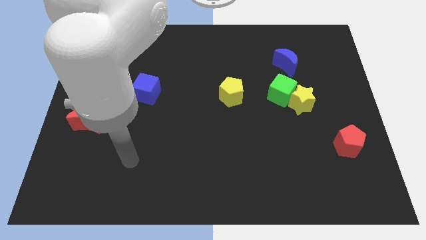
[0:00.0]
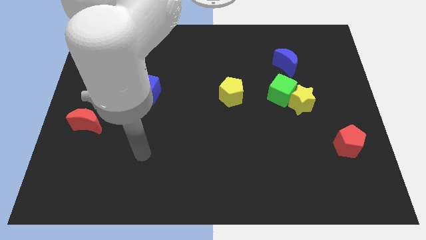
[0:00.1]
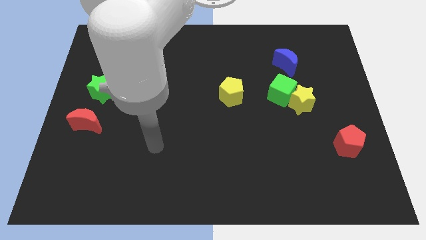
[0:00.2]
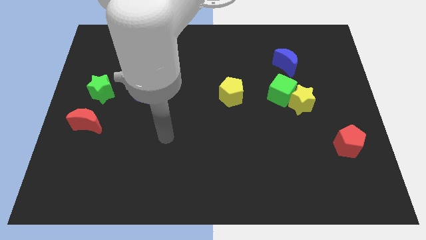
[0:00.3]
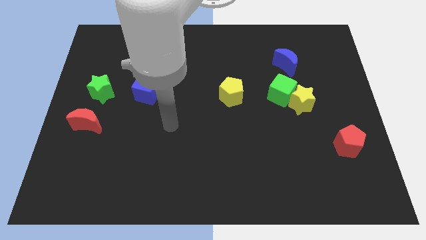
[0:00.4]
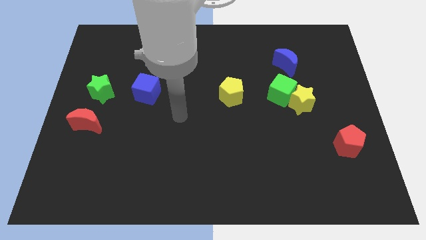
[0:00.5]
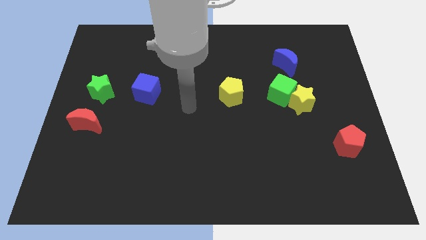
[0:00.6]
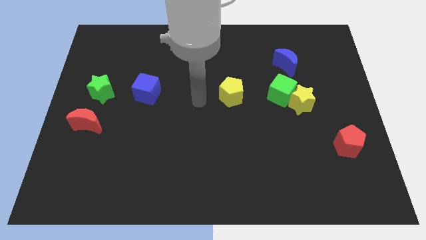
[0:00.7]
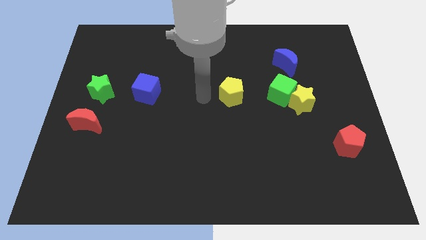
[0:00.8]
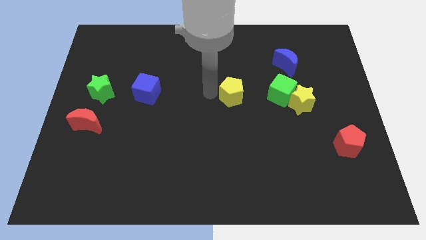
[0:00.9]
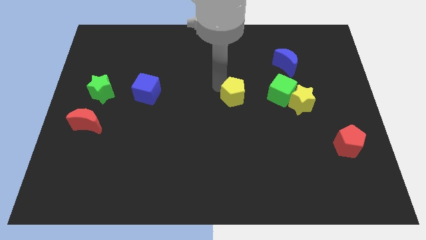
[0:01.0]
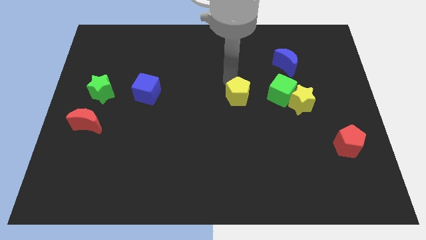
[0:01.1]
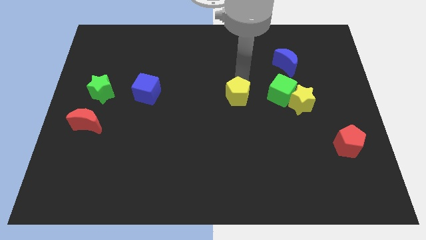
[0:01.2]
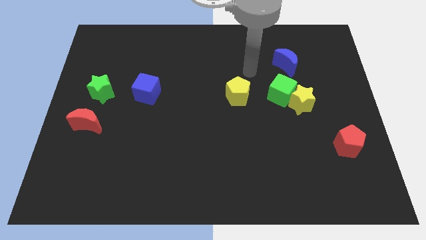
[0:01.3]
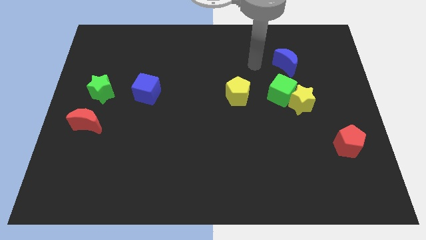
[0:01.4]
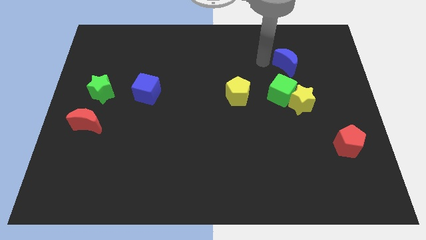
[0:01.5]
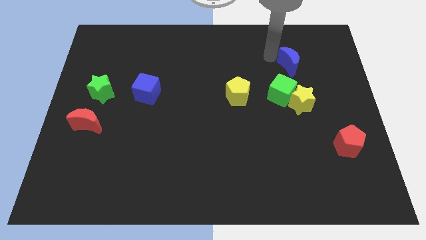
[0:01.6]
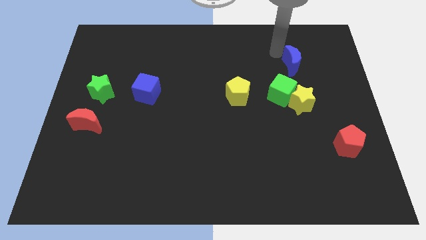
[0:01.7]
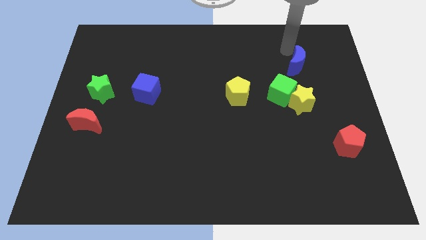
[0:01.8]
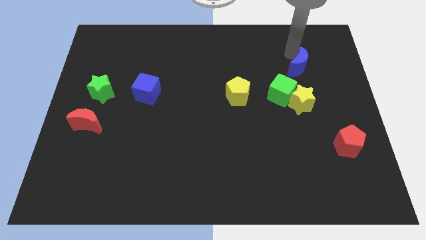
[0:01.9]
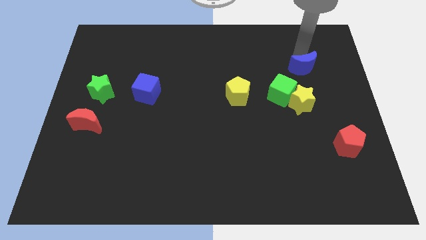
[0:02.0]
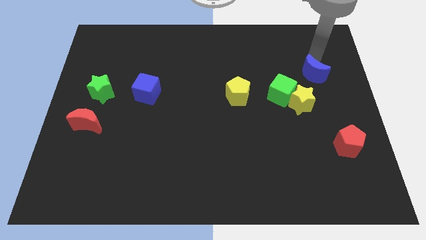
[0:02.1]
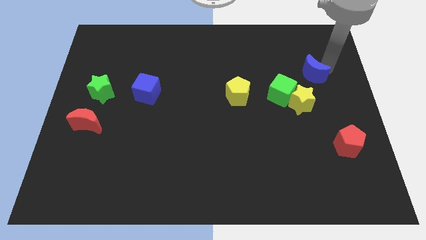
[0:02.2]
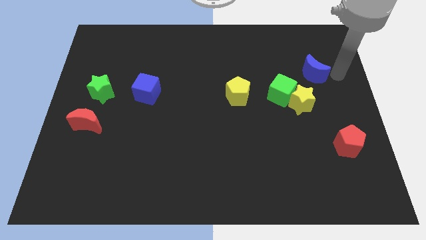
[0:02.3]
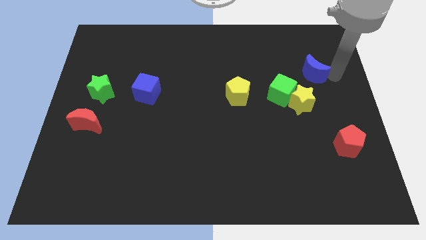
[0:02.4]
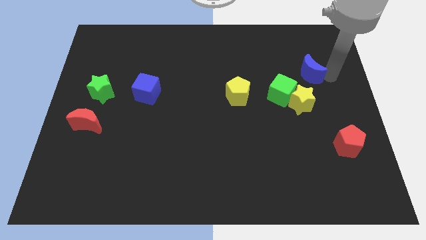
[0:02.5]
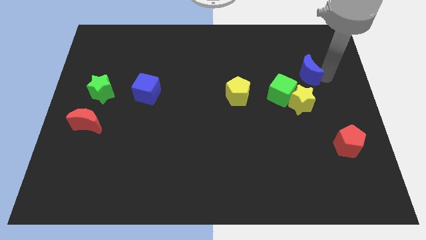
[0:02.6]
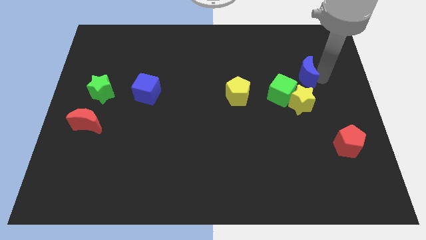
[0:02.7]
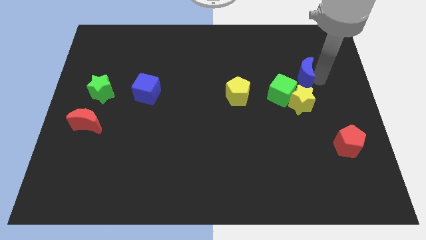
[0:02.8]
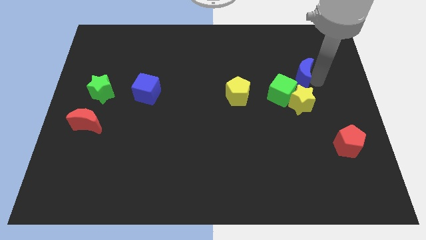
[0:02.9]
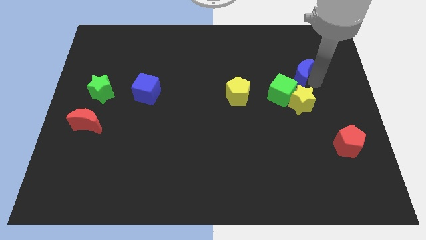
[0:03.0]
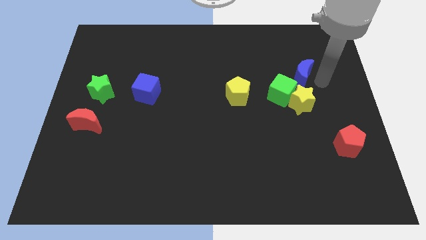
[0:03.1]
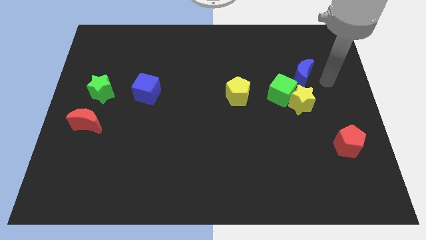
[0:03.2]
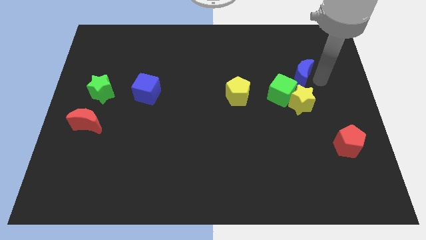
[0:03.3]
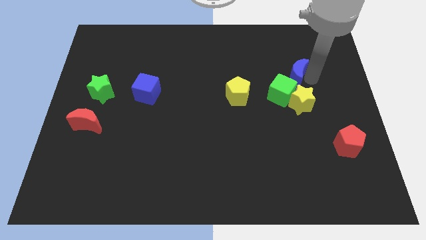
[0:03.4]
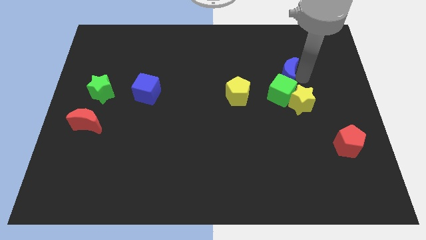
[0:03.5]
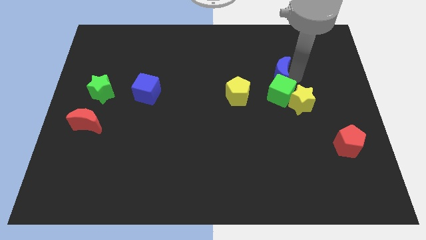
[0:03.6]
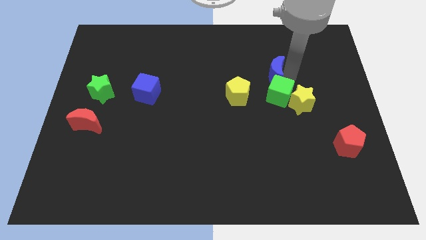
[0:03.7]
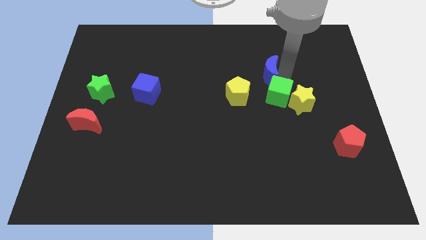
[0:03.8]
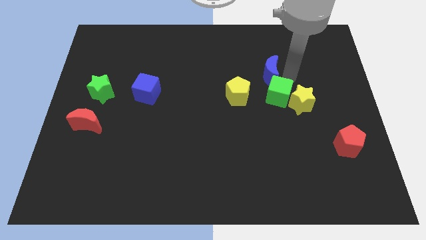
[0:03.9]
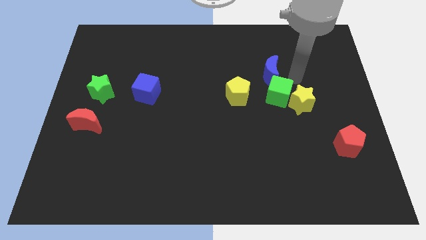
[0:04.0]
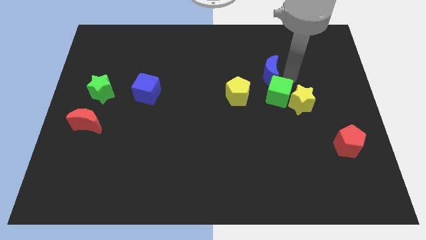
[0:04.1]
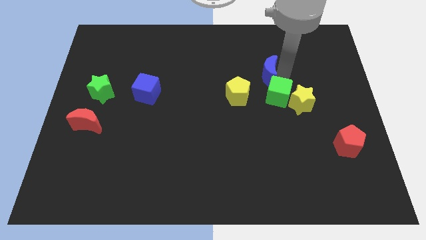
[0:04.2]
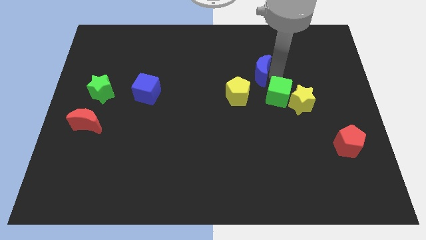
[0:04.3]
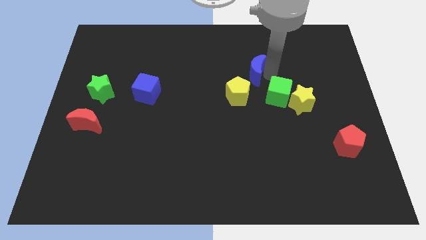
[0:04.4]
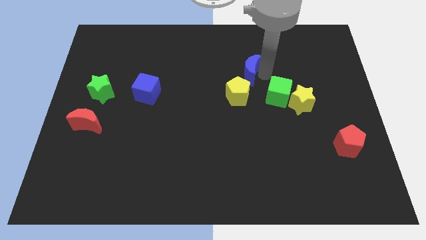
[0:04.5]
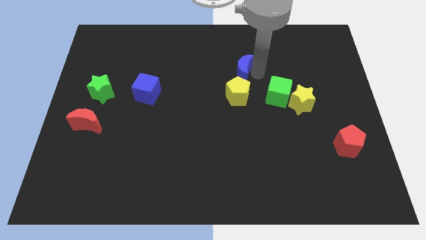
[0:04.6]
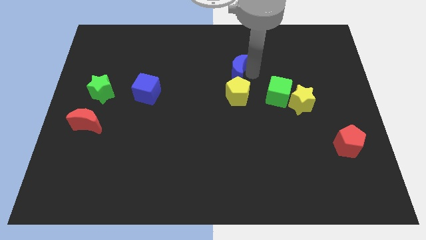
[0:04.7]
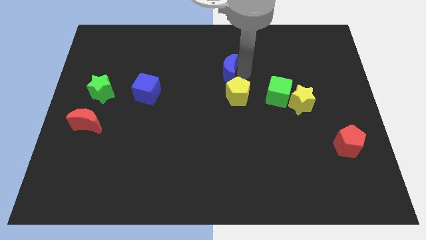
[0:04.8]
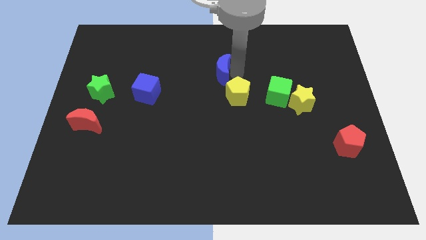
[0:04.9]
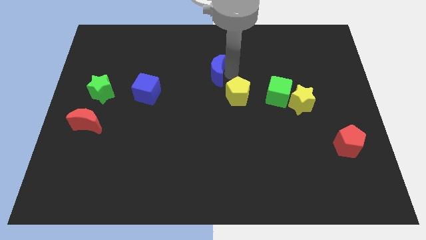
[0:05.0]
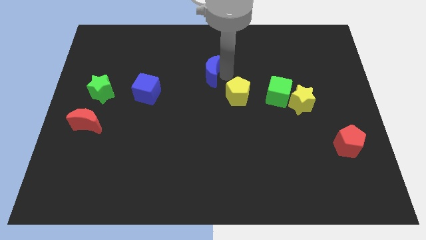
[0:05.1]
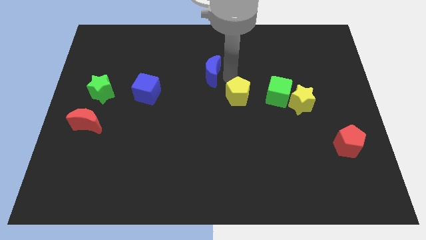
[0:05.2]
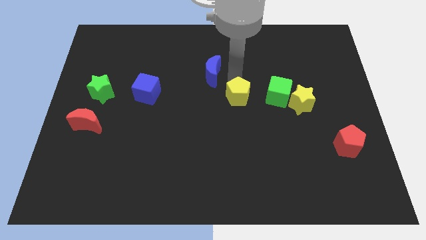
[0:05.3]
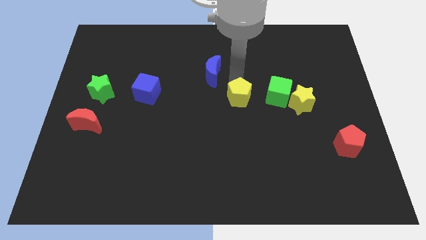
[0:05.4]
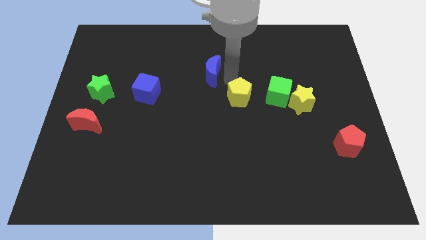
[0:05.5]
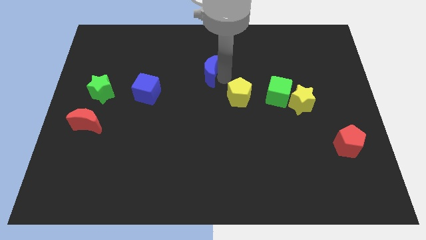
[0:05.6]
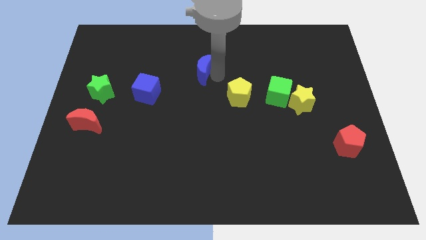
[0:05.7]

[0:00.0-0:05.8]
push the blue moon left

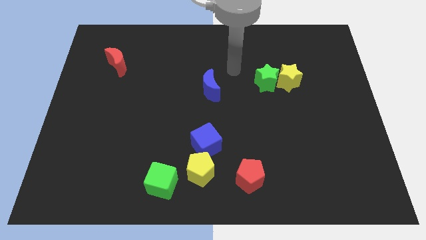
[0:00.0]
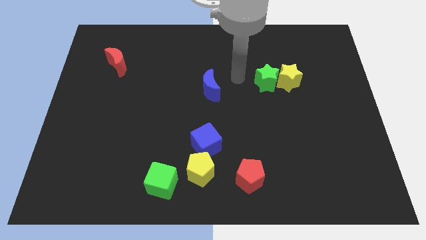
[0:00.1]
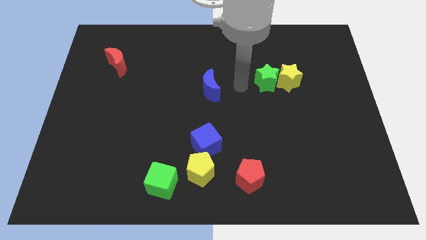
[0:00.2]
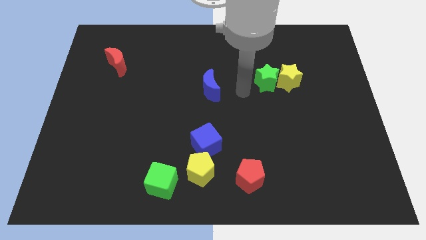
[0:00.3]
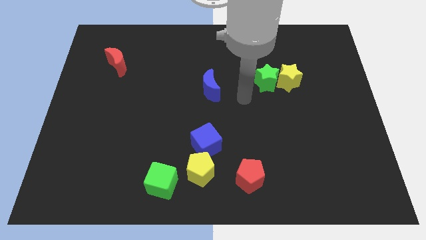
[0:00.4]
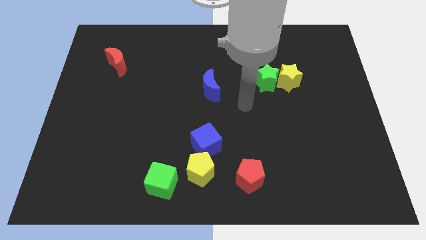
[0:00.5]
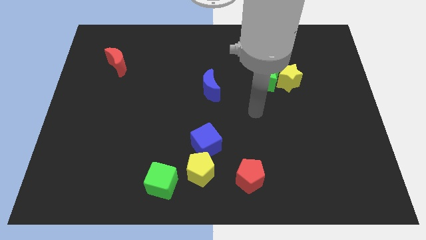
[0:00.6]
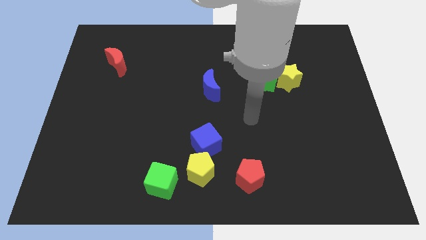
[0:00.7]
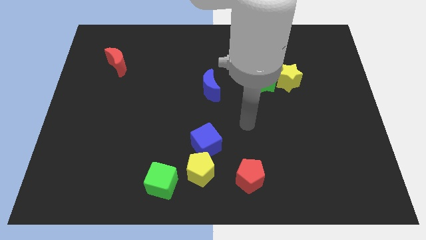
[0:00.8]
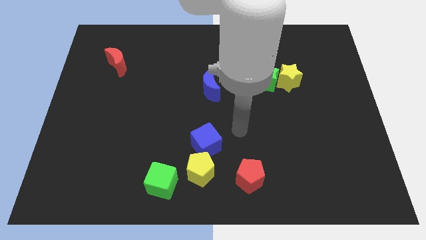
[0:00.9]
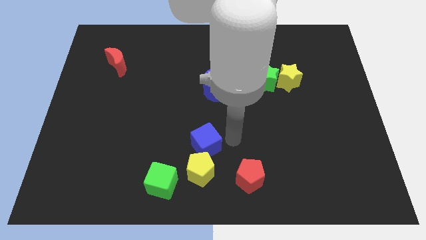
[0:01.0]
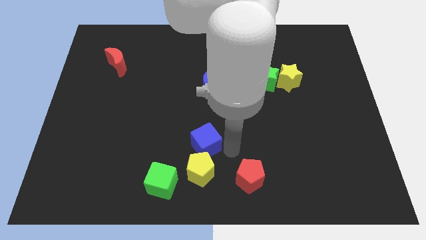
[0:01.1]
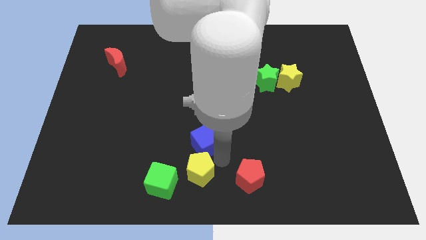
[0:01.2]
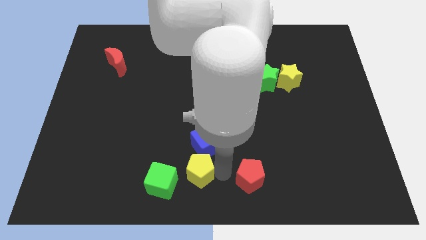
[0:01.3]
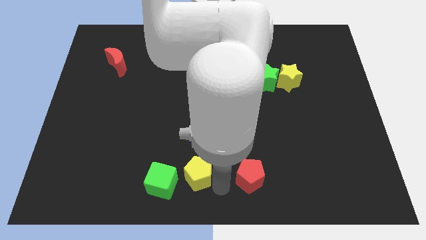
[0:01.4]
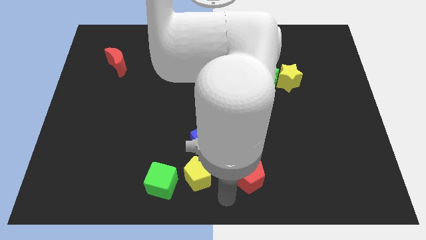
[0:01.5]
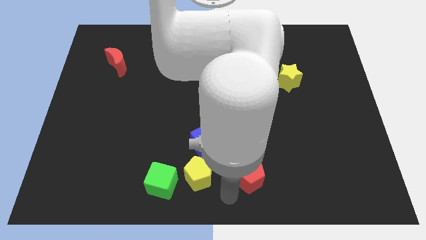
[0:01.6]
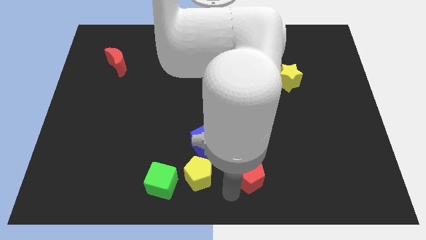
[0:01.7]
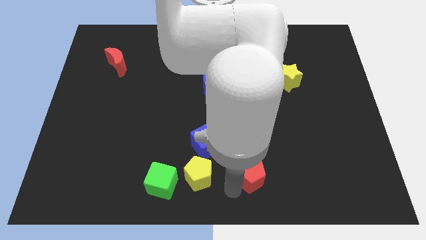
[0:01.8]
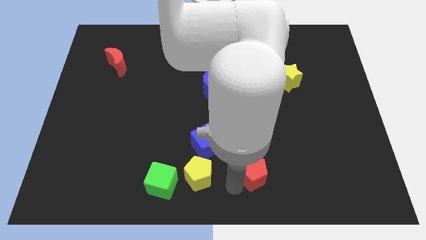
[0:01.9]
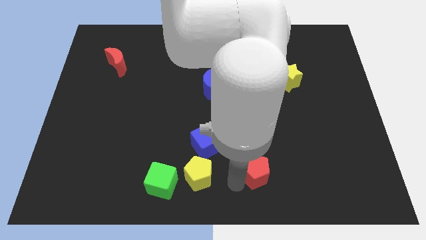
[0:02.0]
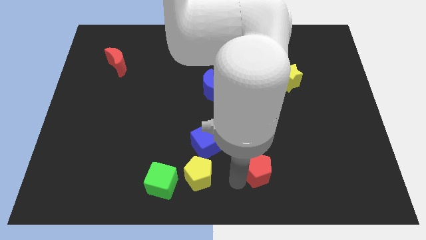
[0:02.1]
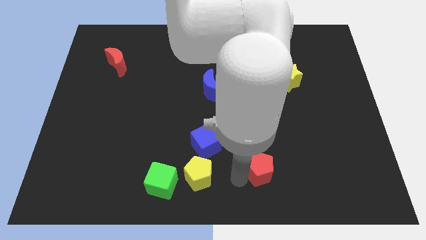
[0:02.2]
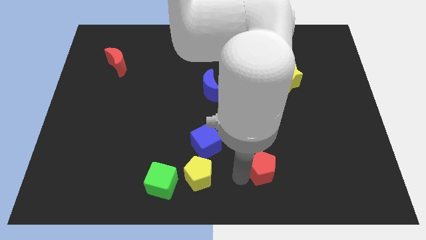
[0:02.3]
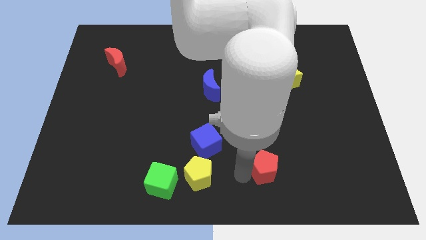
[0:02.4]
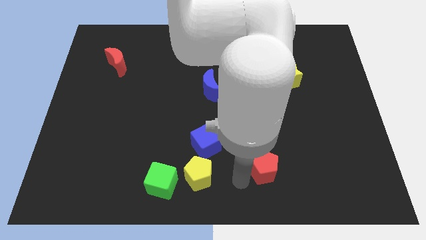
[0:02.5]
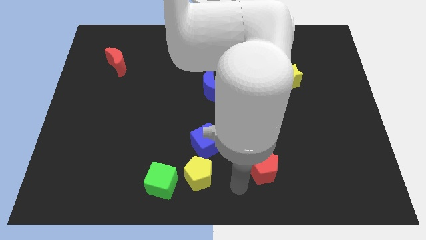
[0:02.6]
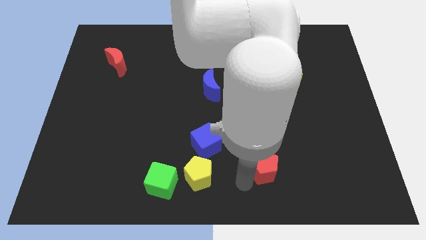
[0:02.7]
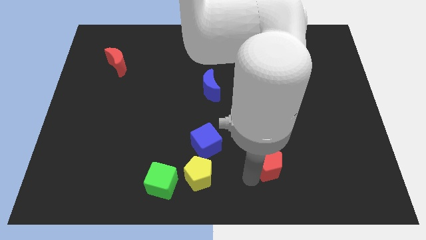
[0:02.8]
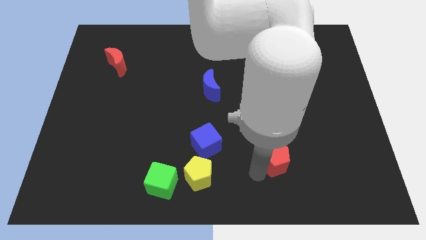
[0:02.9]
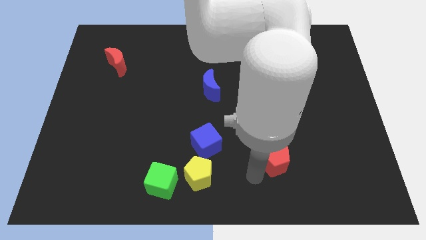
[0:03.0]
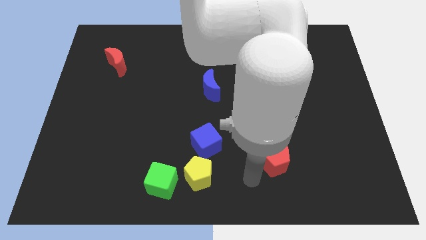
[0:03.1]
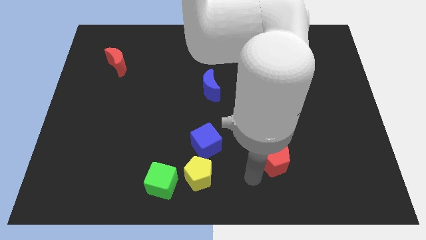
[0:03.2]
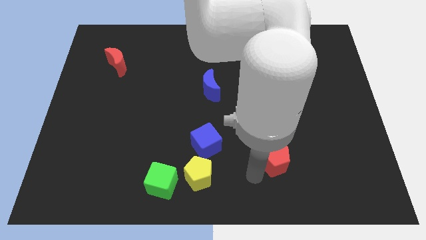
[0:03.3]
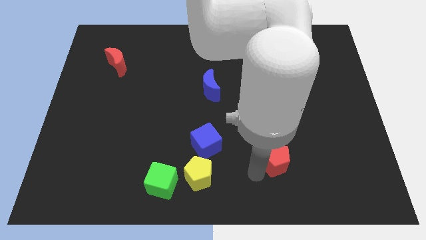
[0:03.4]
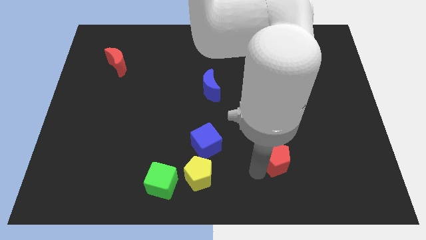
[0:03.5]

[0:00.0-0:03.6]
push the red pentagon up and right diagonally slightly
